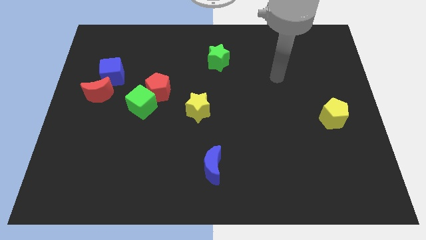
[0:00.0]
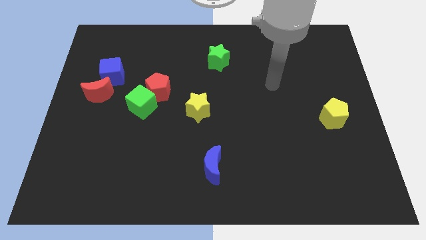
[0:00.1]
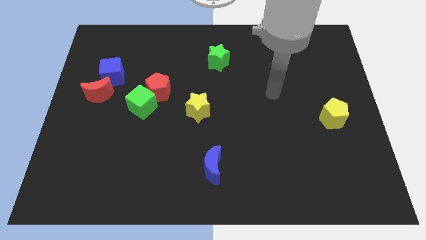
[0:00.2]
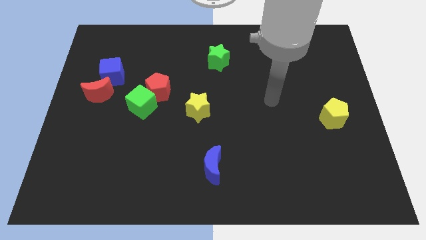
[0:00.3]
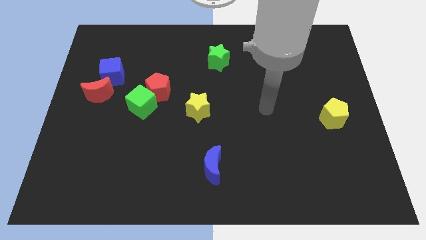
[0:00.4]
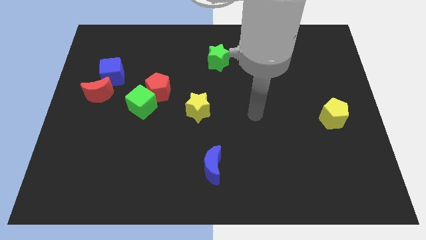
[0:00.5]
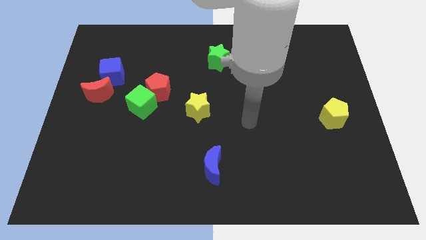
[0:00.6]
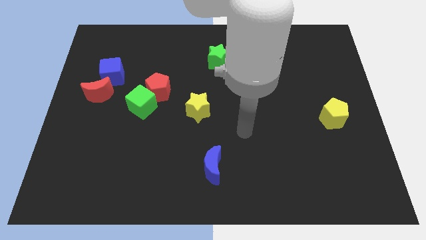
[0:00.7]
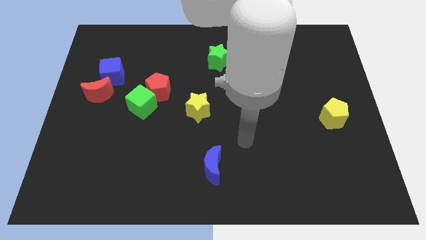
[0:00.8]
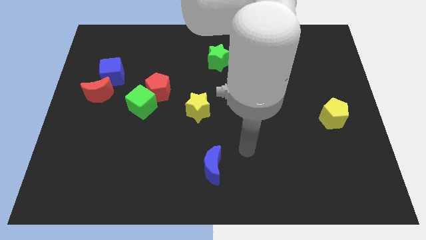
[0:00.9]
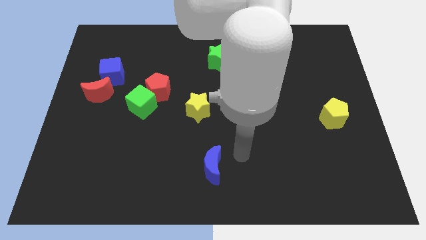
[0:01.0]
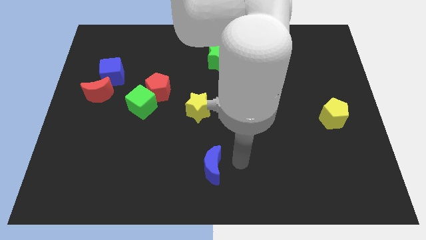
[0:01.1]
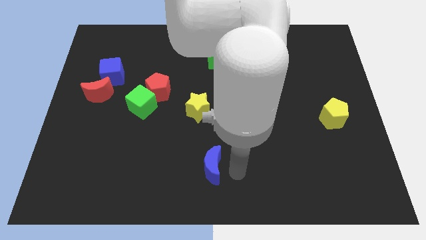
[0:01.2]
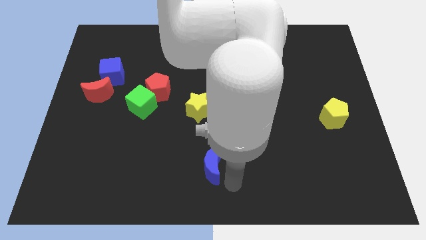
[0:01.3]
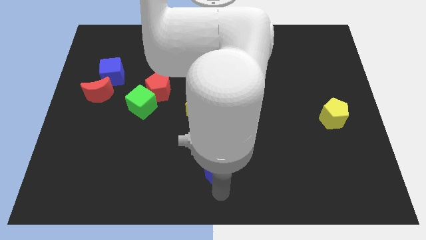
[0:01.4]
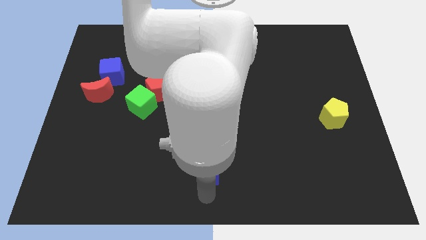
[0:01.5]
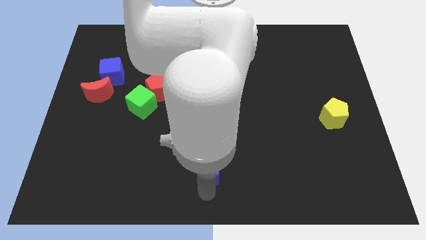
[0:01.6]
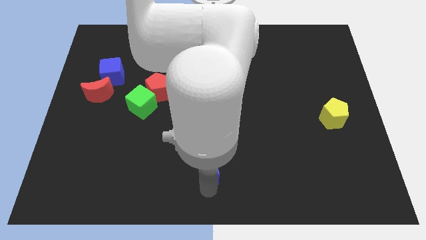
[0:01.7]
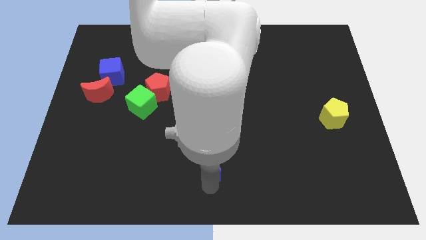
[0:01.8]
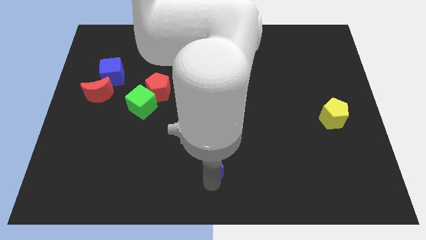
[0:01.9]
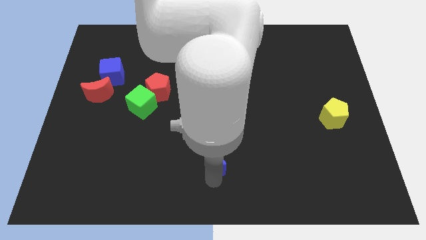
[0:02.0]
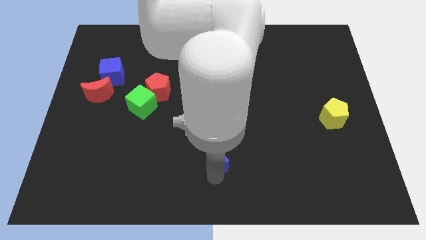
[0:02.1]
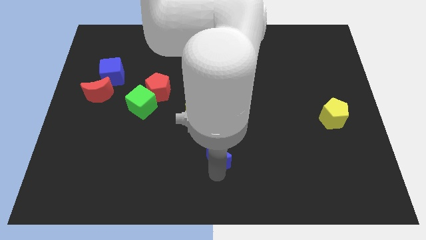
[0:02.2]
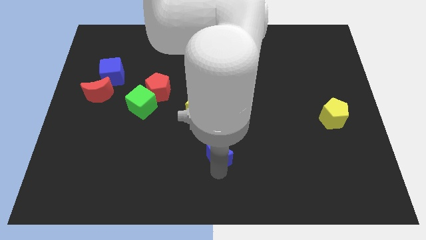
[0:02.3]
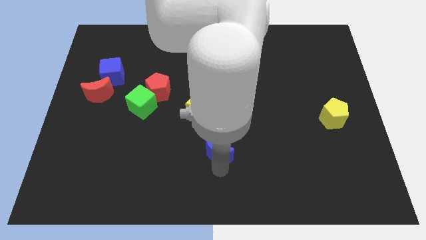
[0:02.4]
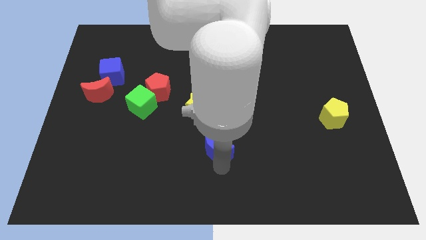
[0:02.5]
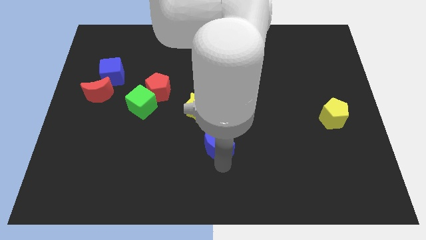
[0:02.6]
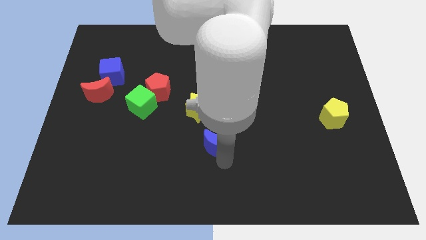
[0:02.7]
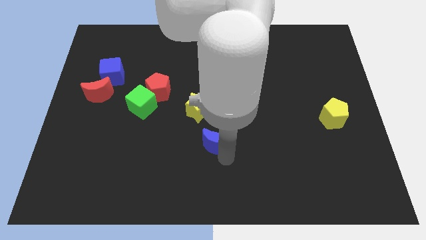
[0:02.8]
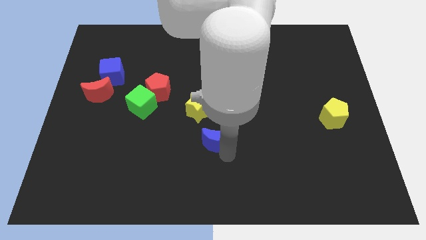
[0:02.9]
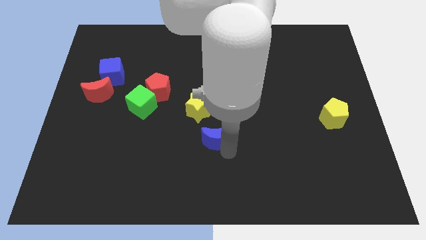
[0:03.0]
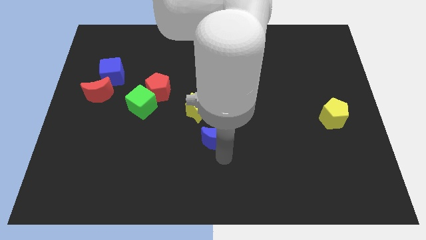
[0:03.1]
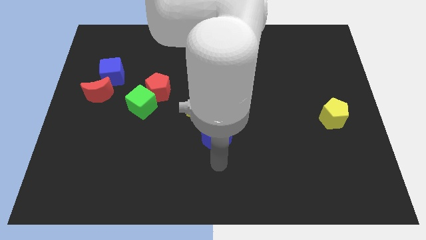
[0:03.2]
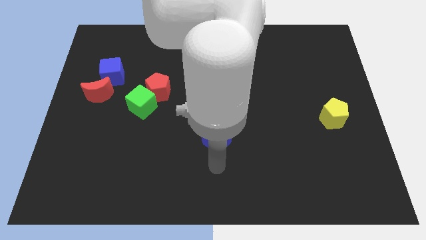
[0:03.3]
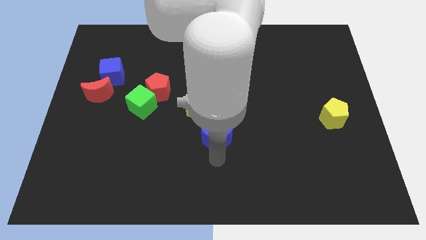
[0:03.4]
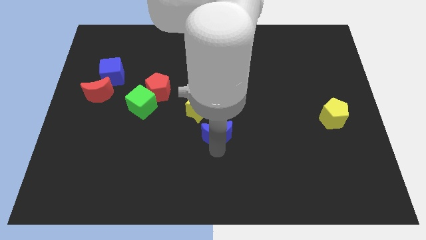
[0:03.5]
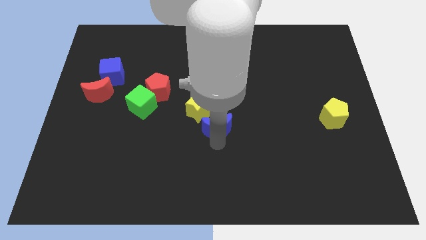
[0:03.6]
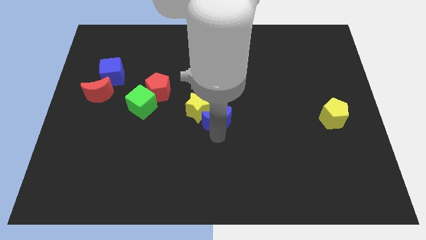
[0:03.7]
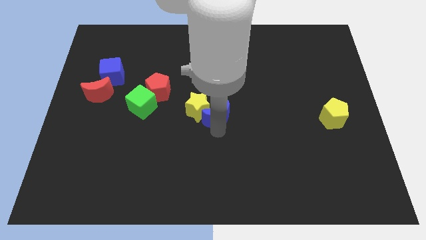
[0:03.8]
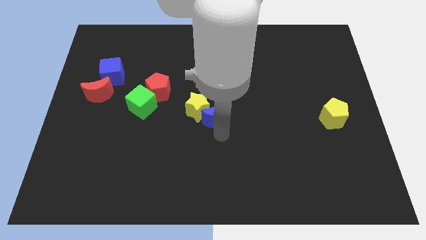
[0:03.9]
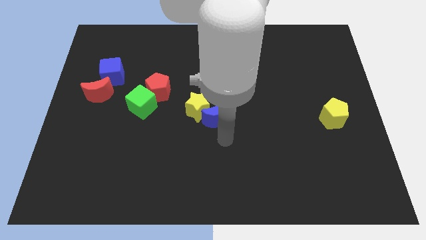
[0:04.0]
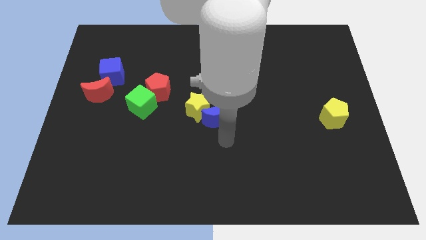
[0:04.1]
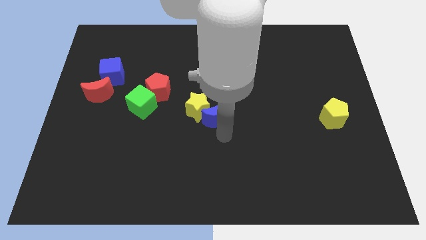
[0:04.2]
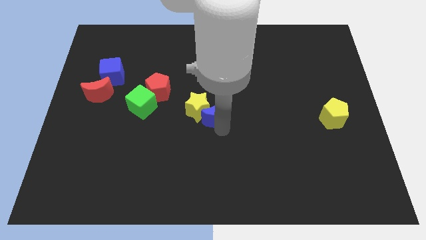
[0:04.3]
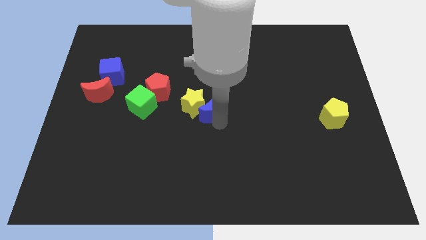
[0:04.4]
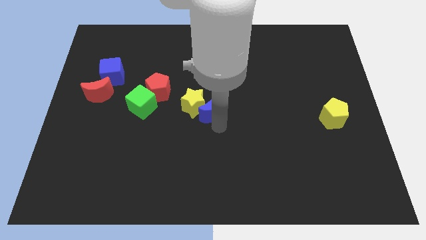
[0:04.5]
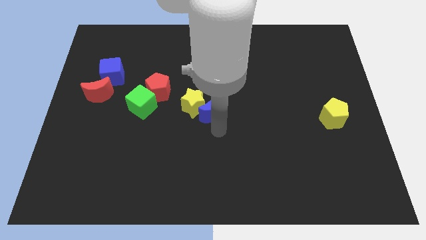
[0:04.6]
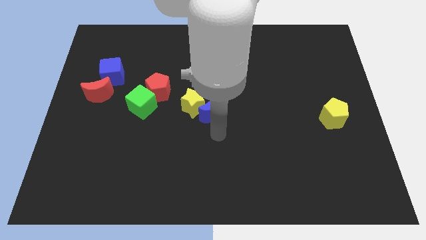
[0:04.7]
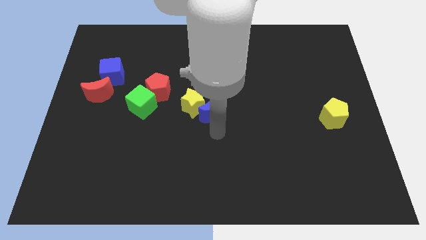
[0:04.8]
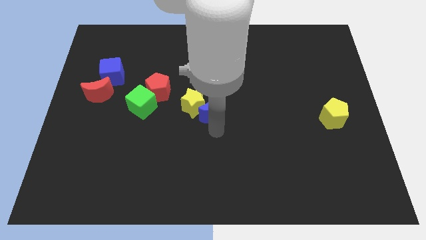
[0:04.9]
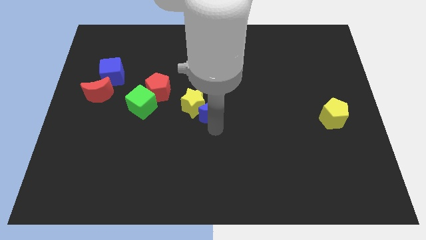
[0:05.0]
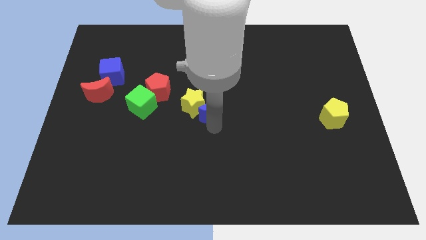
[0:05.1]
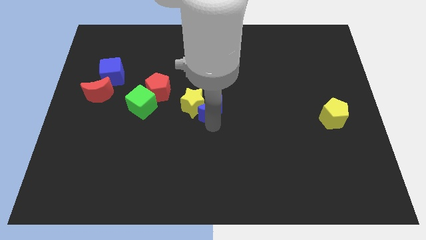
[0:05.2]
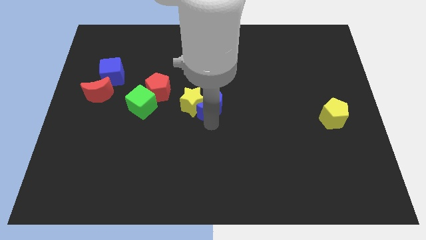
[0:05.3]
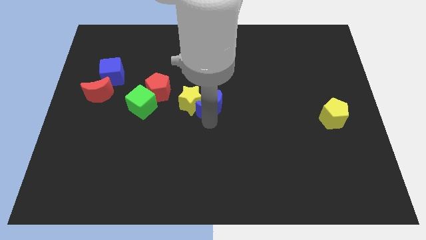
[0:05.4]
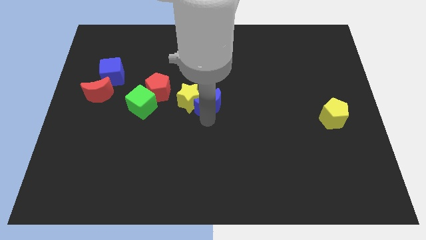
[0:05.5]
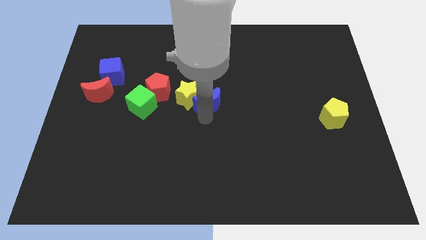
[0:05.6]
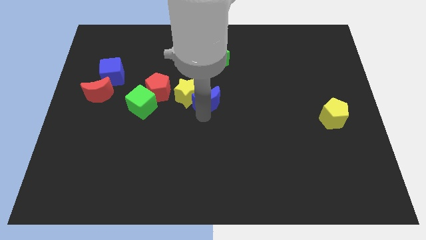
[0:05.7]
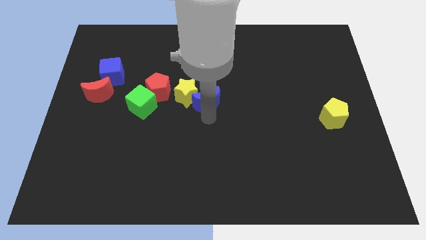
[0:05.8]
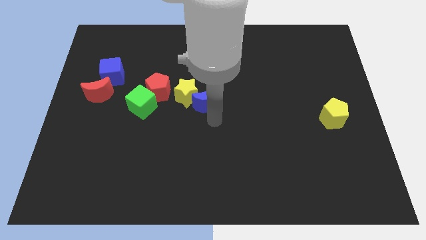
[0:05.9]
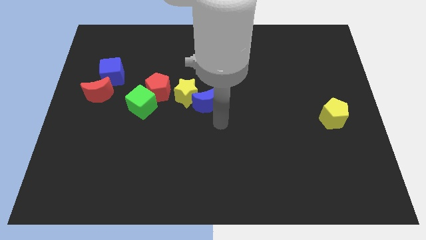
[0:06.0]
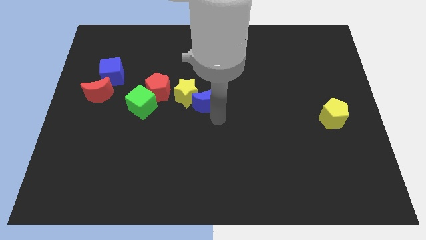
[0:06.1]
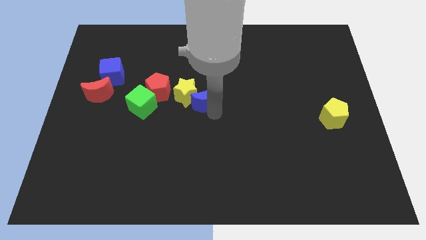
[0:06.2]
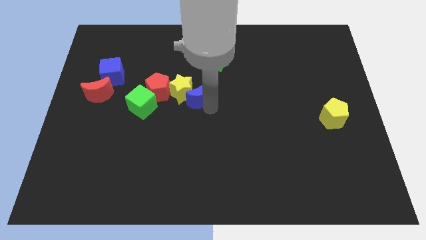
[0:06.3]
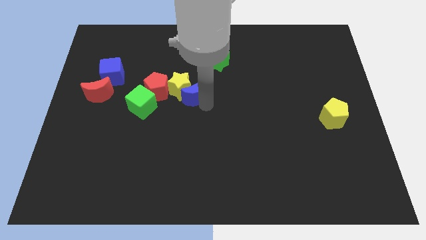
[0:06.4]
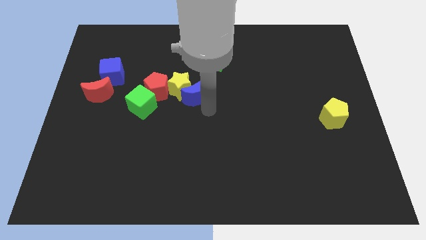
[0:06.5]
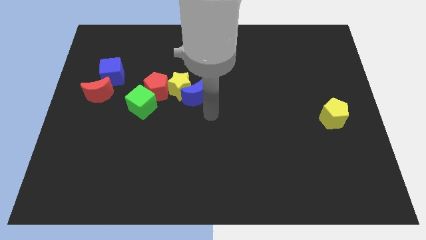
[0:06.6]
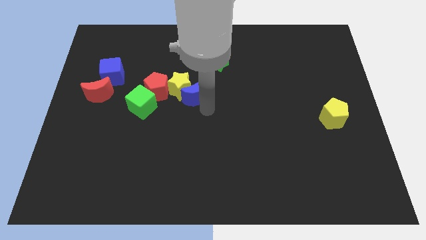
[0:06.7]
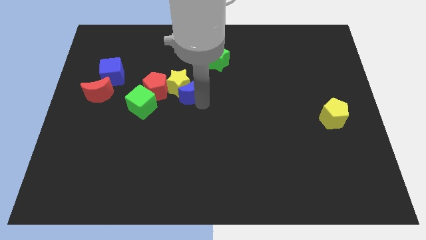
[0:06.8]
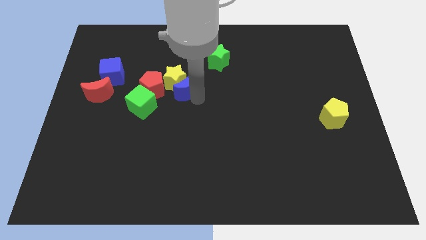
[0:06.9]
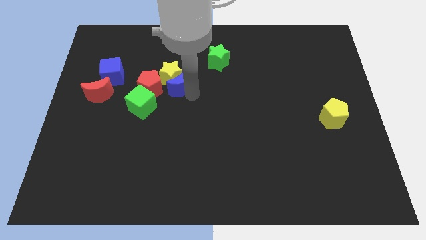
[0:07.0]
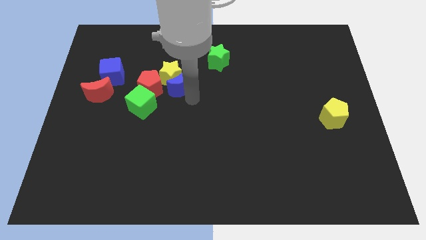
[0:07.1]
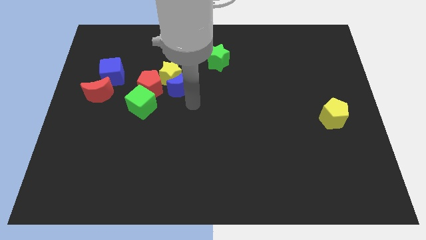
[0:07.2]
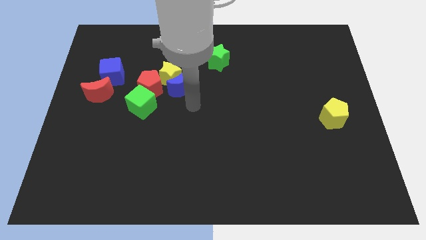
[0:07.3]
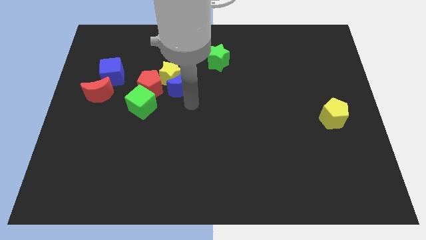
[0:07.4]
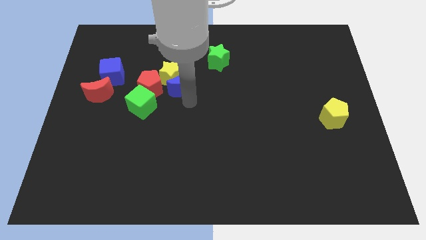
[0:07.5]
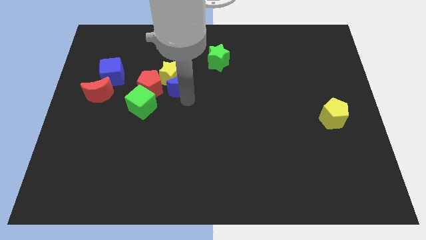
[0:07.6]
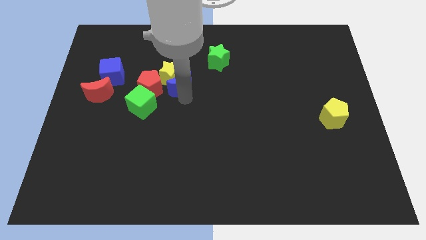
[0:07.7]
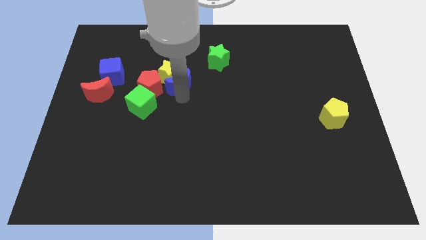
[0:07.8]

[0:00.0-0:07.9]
slide the blue moon to the top right of the red pentagon
